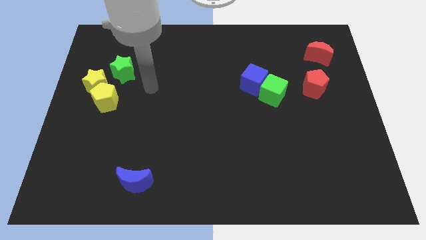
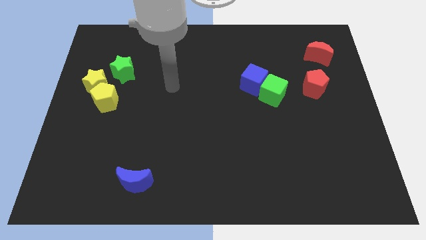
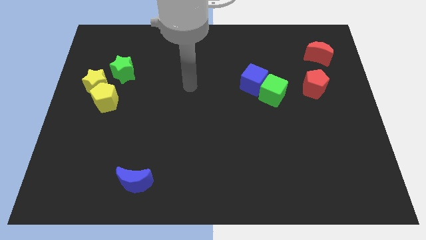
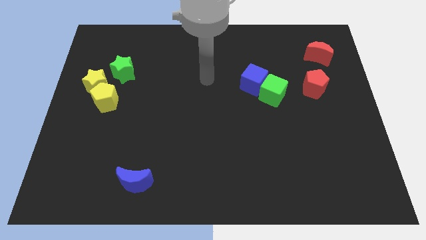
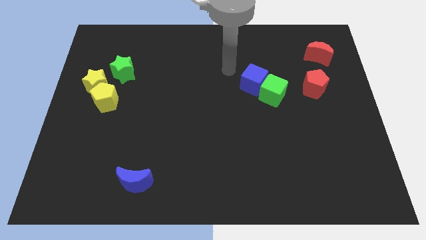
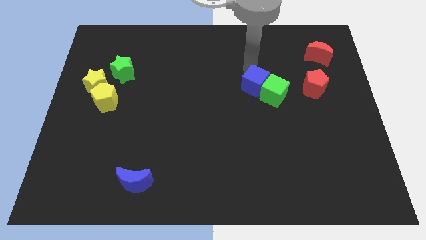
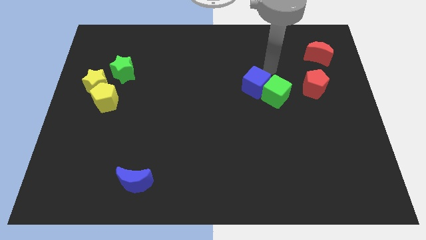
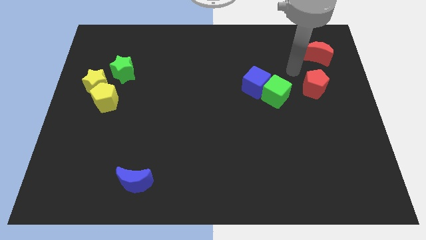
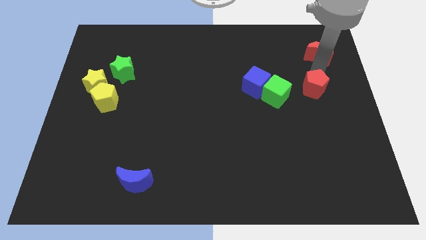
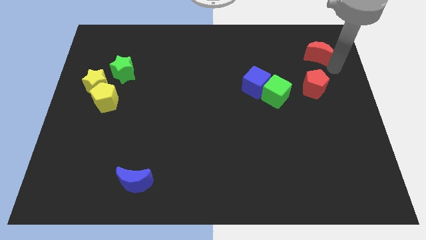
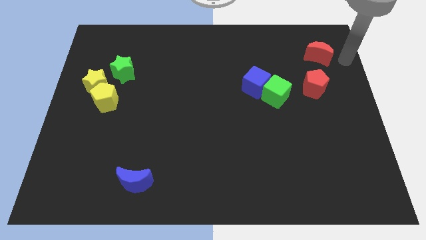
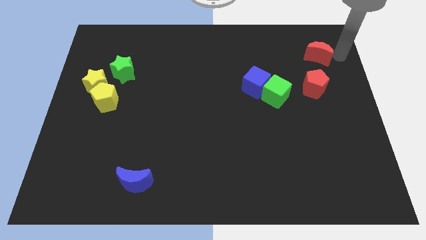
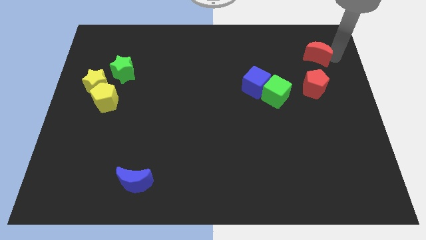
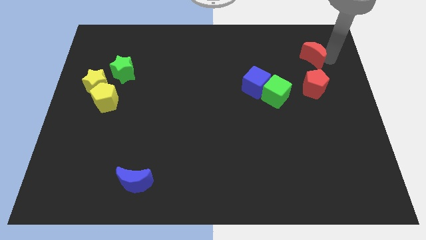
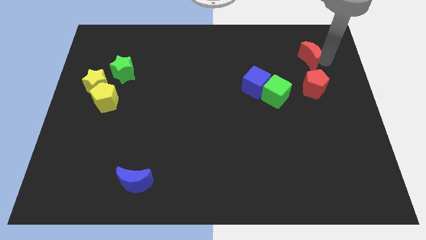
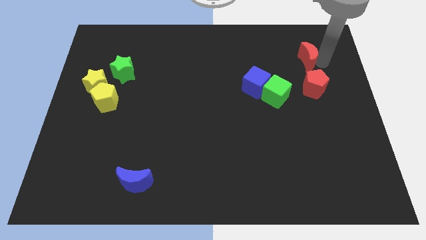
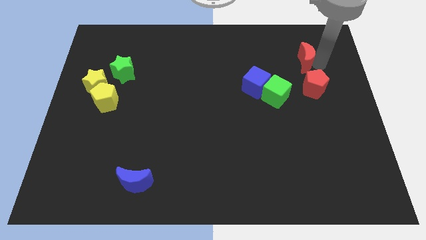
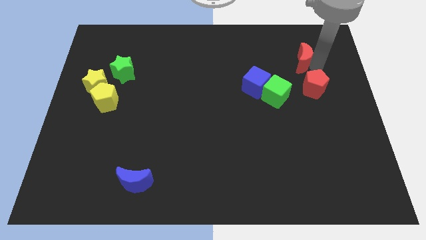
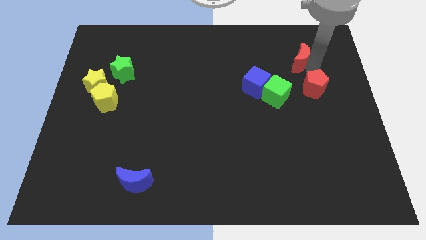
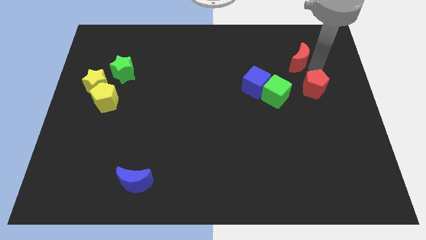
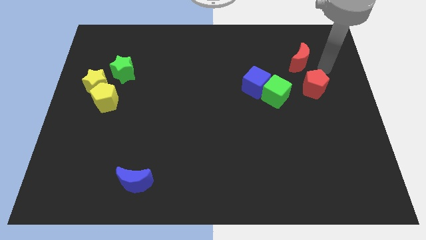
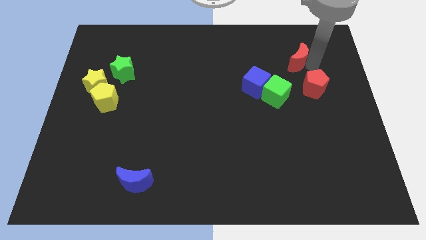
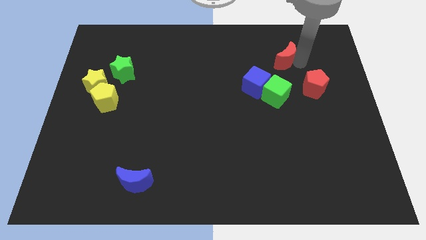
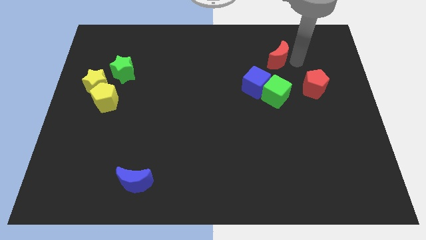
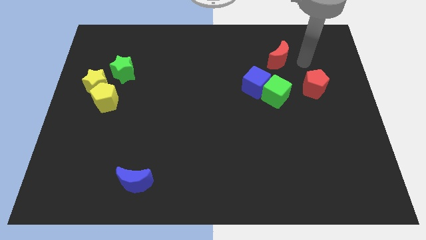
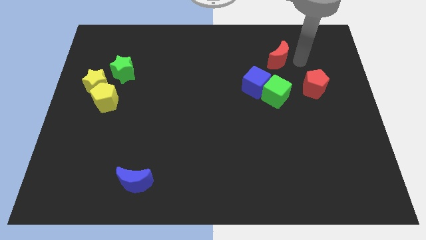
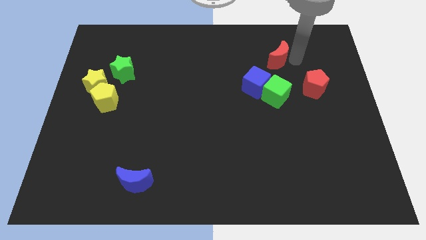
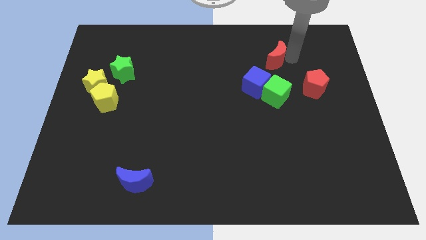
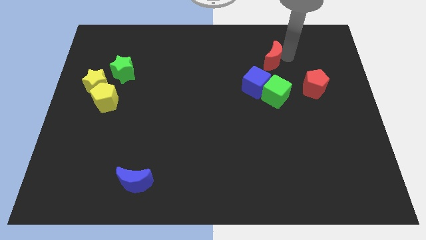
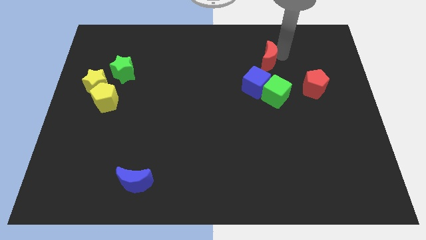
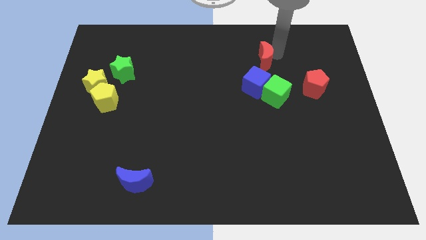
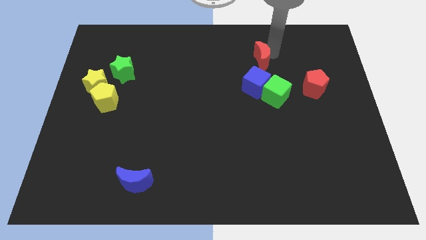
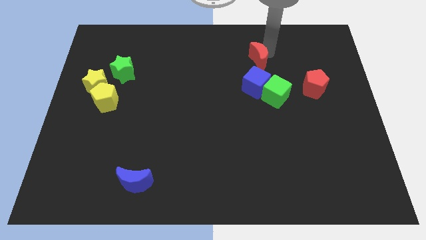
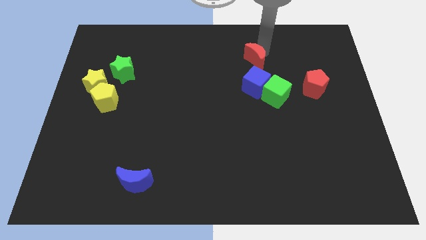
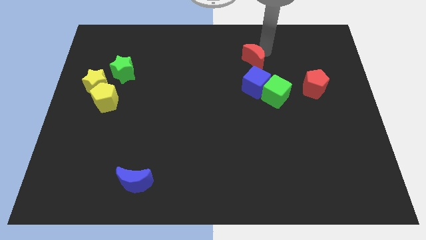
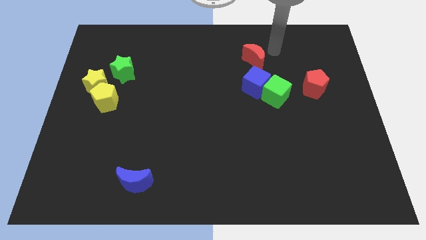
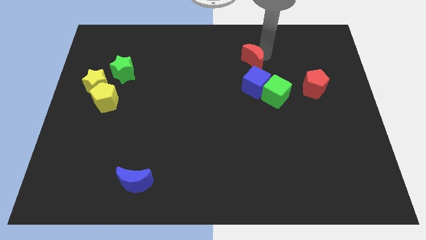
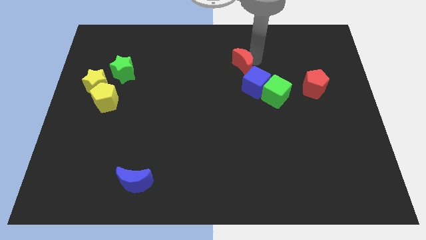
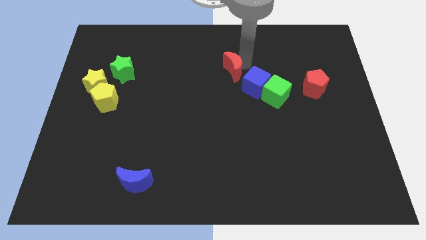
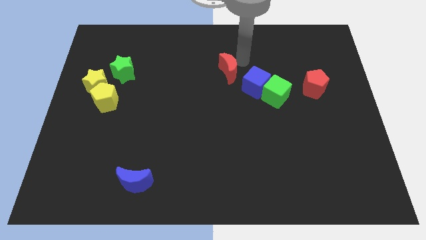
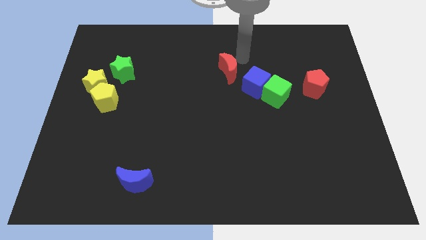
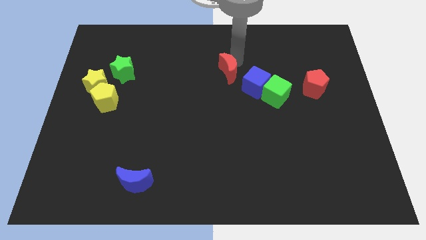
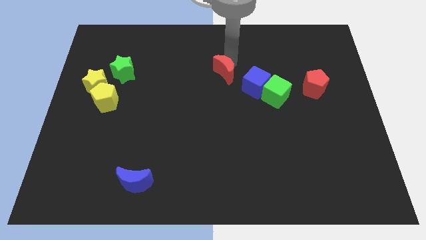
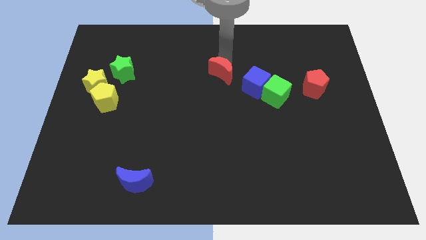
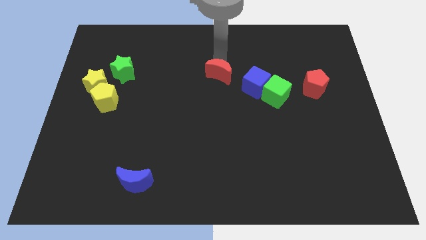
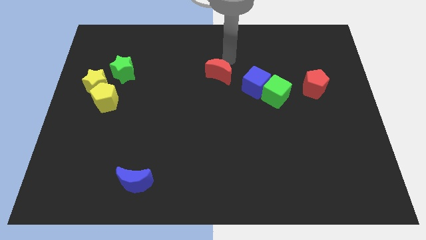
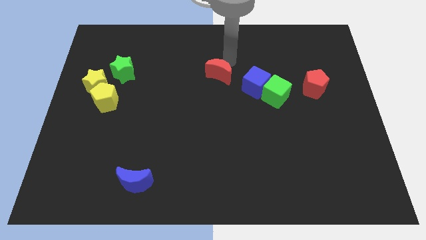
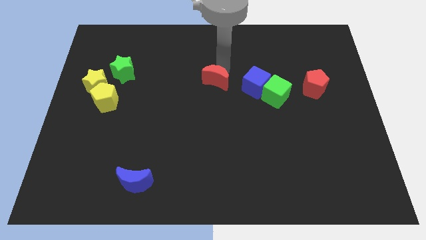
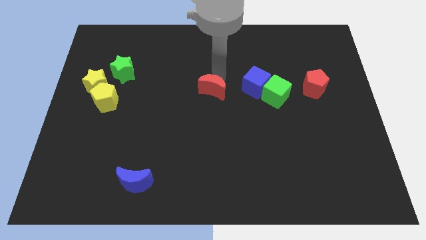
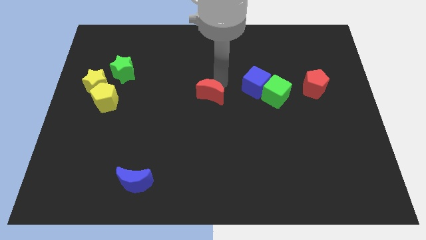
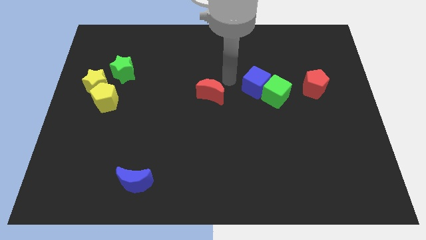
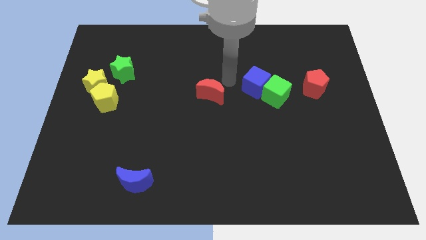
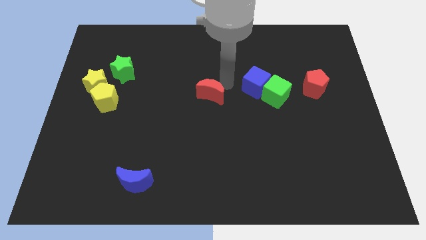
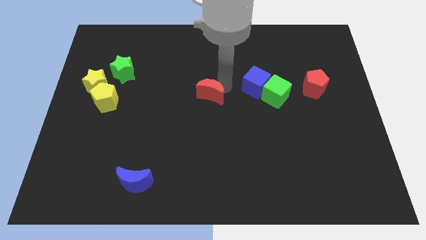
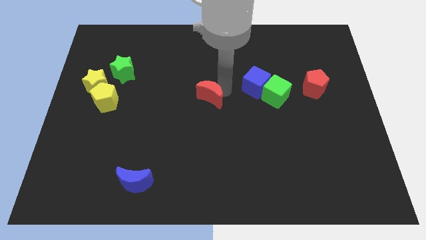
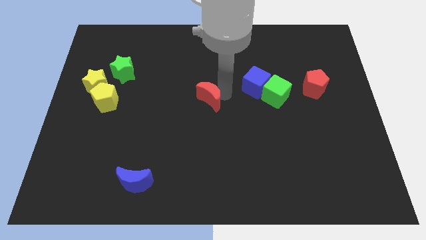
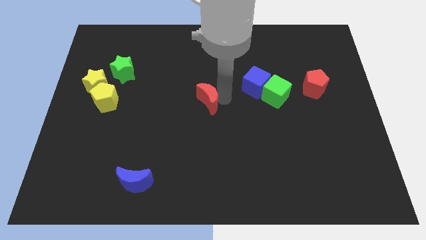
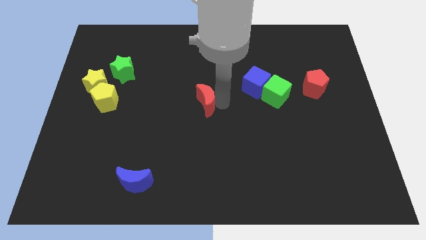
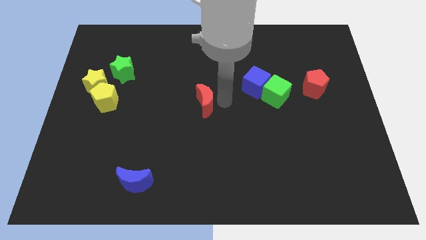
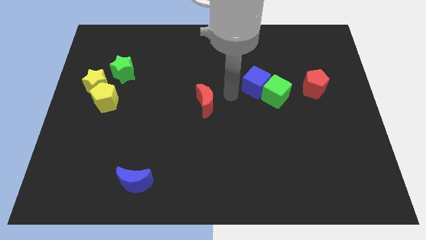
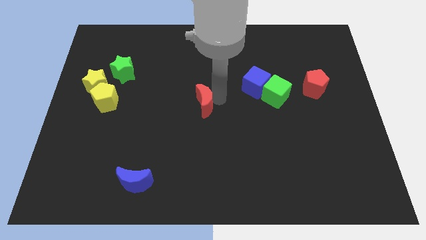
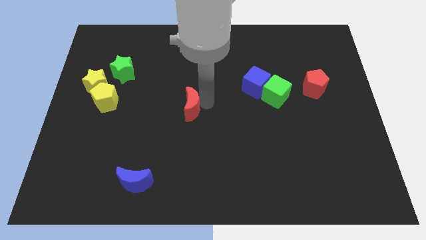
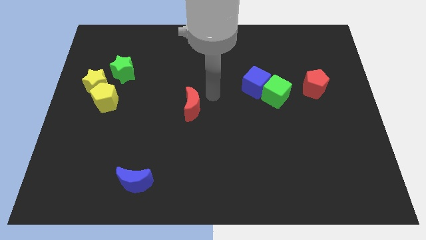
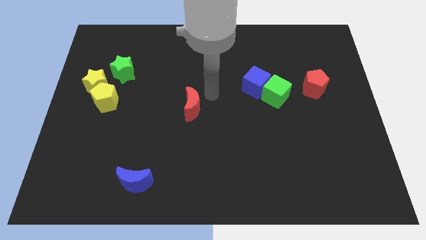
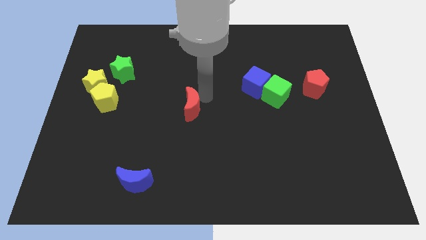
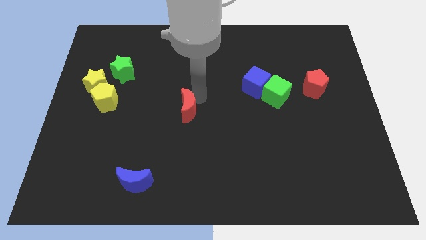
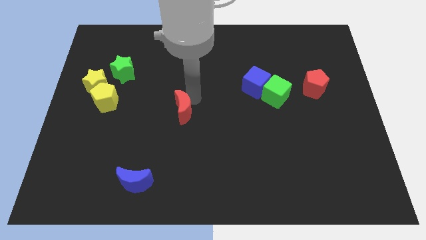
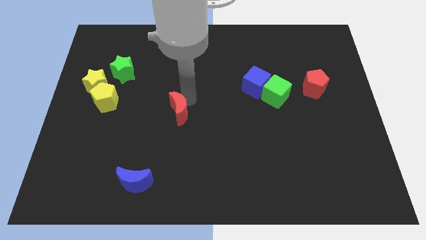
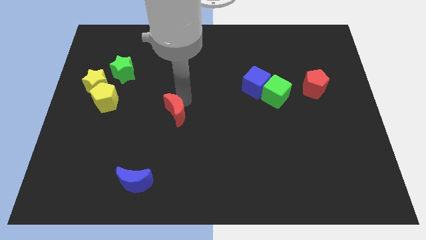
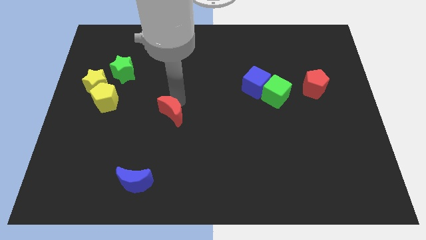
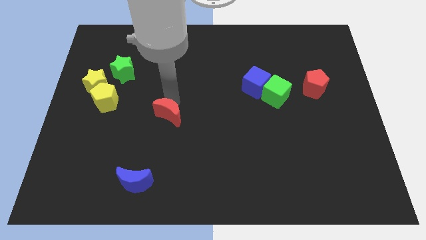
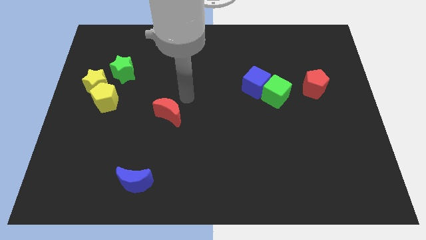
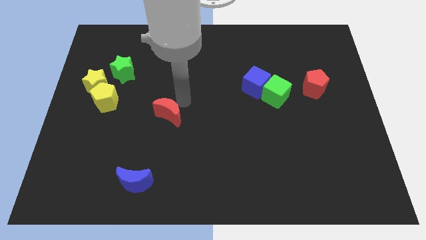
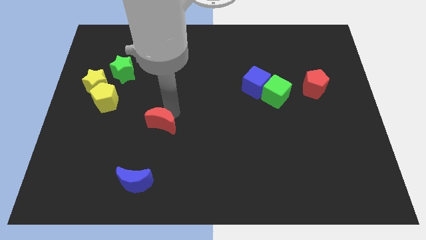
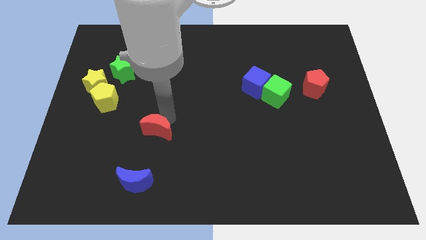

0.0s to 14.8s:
slide the red moon above the blue moon

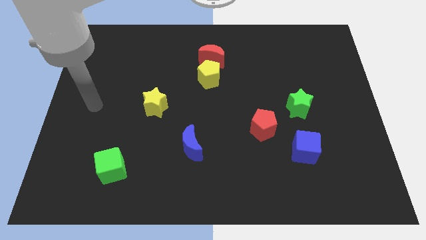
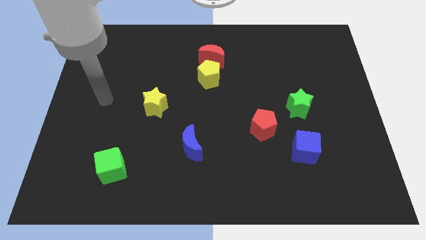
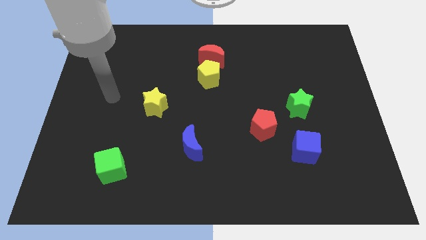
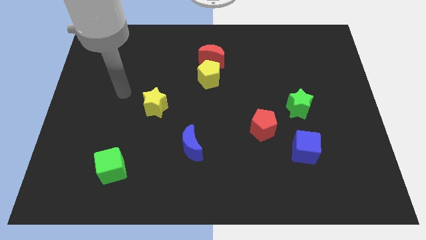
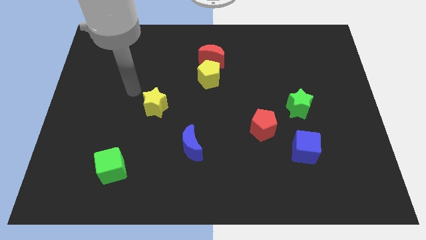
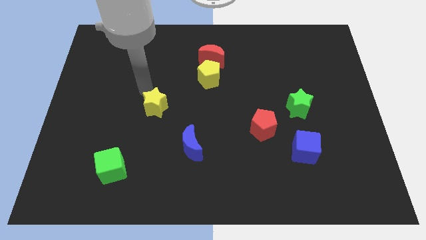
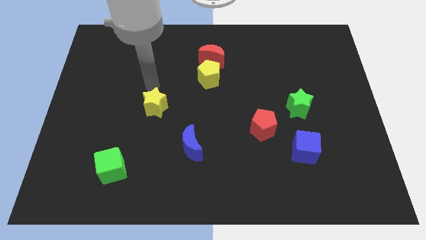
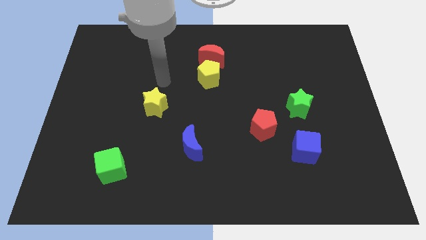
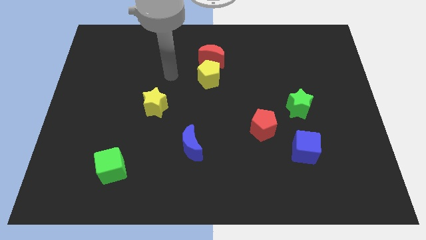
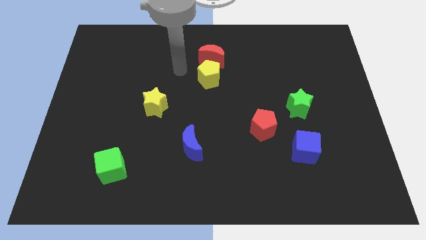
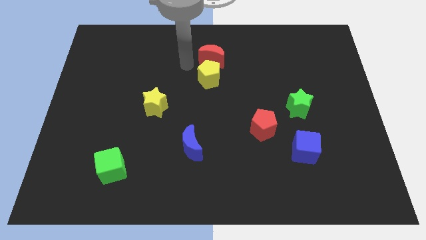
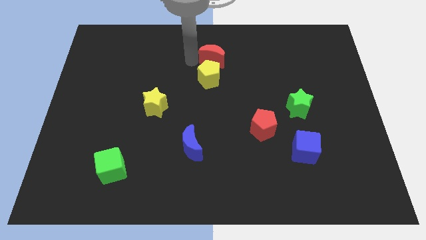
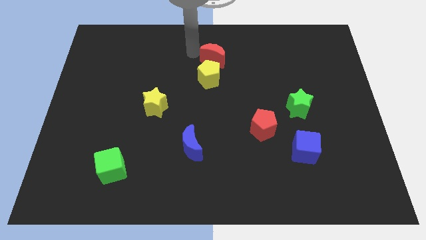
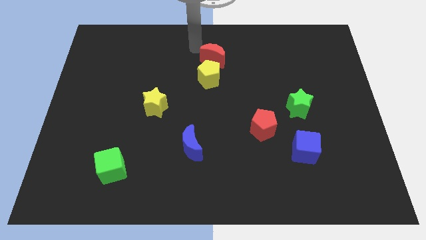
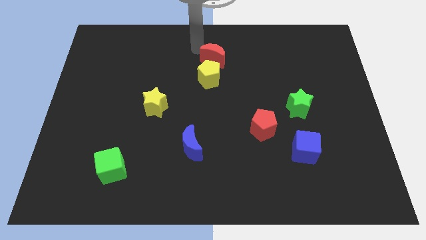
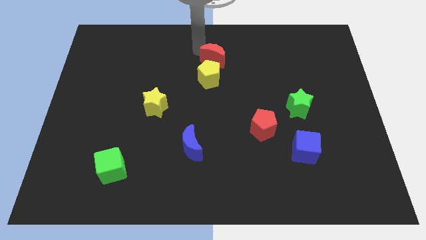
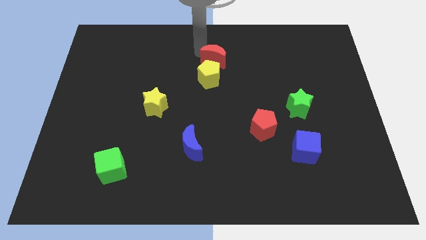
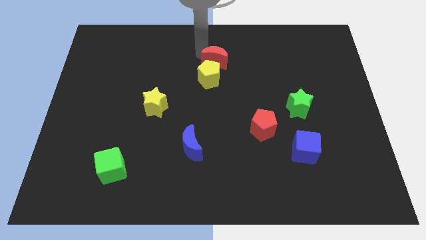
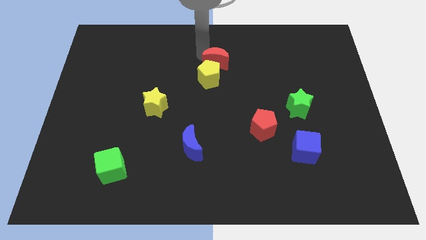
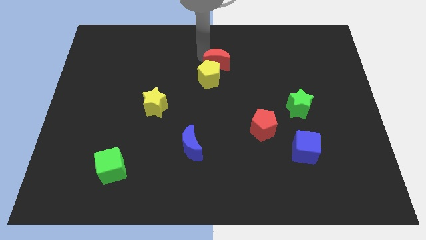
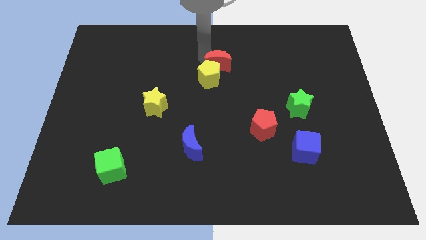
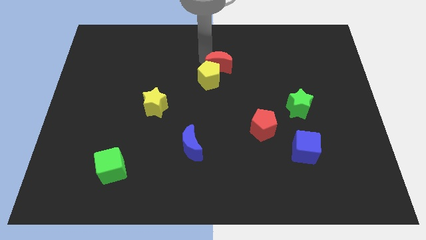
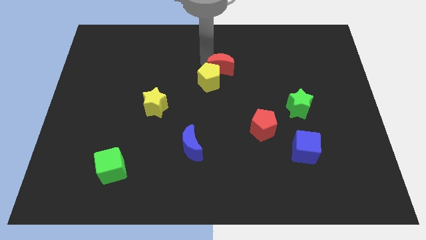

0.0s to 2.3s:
slide the red moon to the right side of the yellow pentagon
